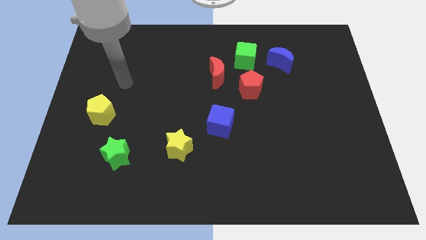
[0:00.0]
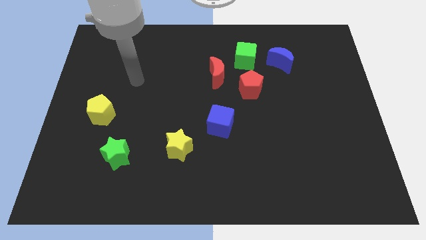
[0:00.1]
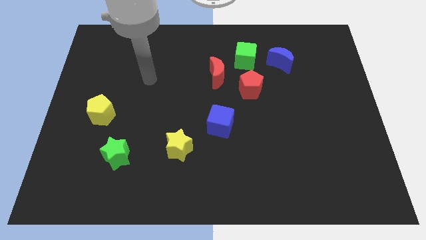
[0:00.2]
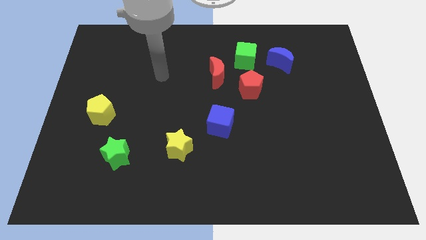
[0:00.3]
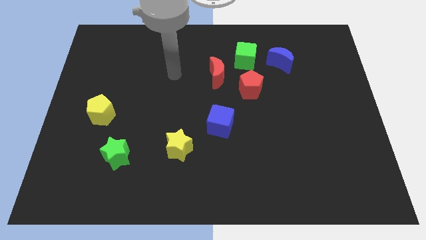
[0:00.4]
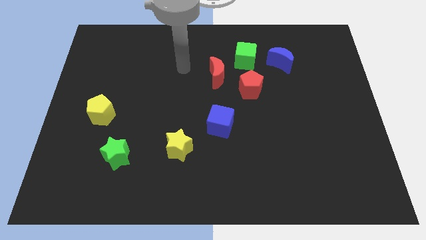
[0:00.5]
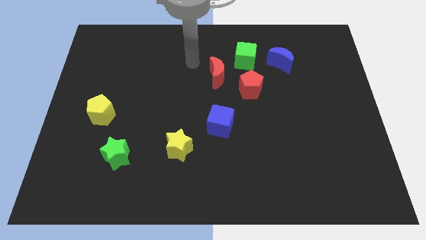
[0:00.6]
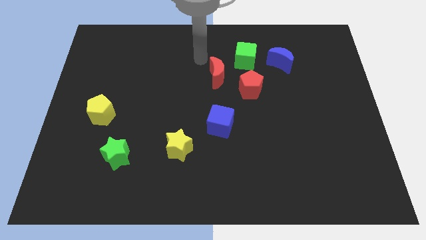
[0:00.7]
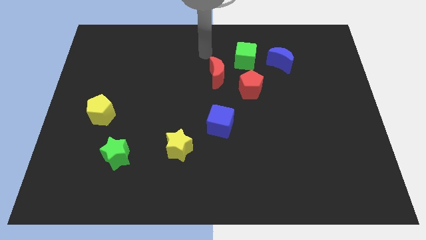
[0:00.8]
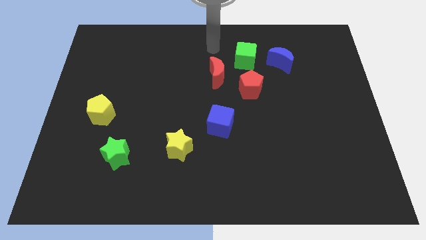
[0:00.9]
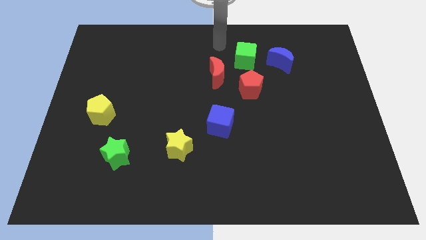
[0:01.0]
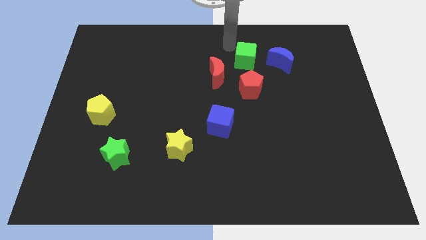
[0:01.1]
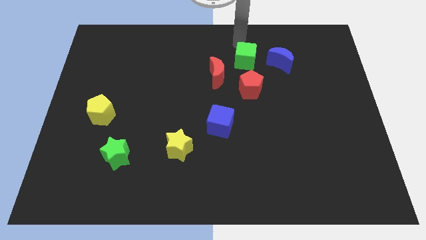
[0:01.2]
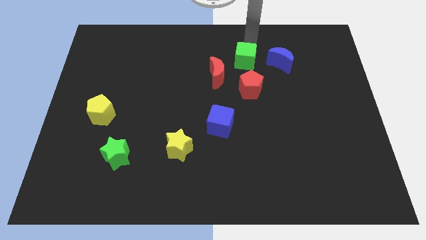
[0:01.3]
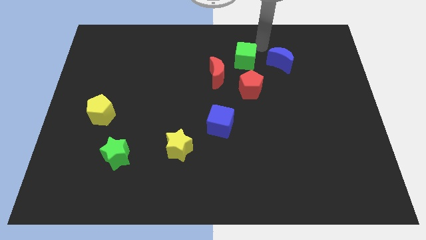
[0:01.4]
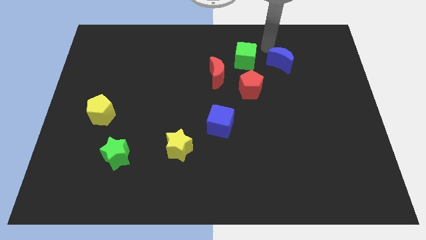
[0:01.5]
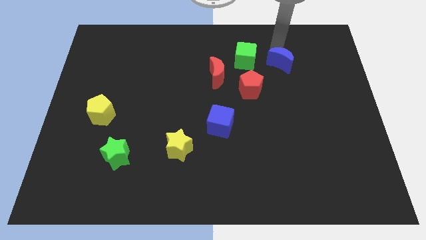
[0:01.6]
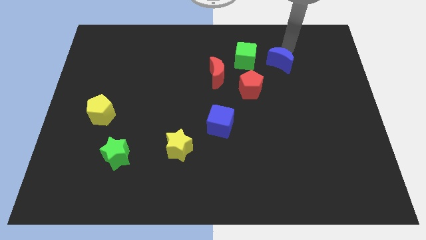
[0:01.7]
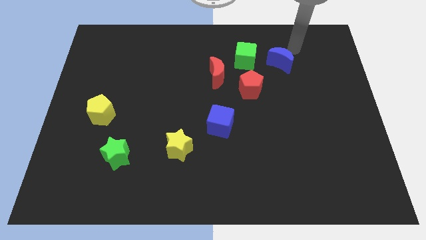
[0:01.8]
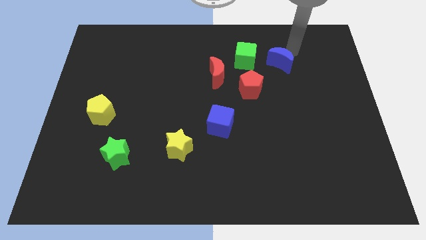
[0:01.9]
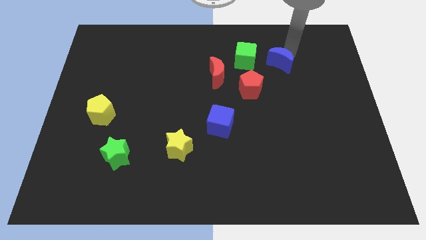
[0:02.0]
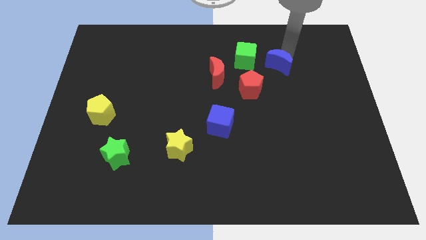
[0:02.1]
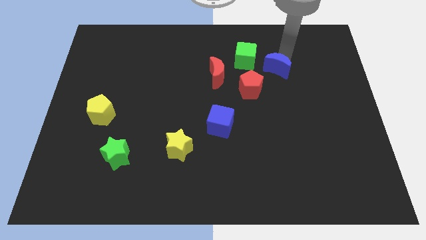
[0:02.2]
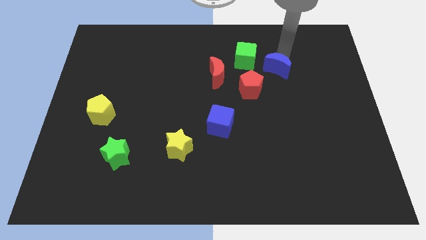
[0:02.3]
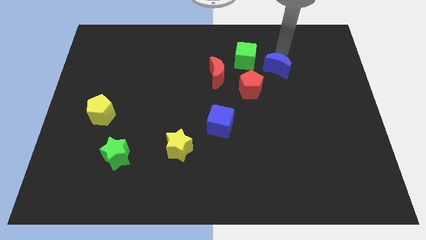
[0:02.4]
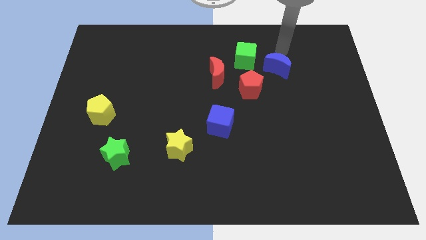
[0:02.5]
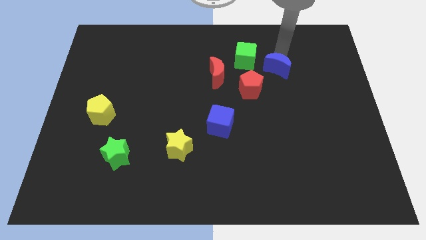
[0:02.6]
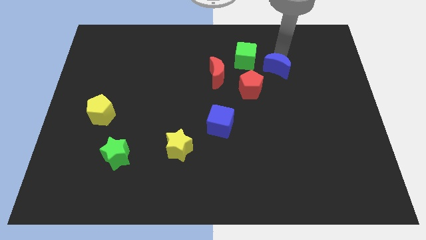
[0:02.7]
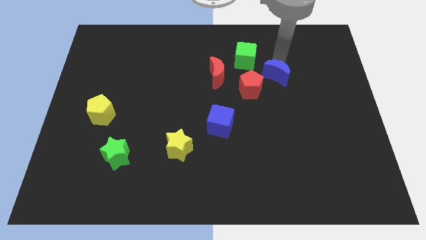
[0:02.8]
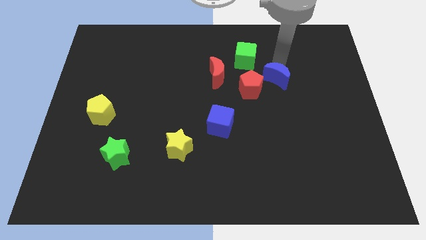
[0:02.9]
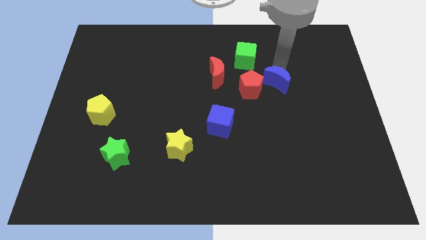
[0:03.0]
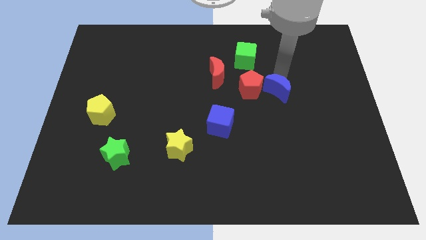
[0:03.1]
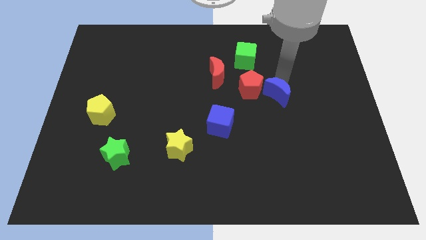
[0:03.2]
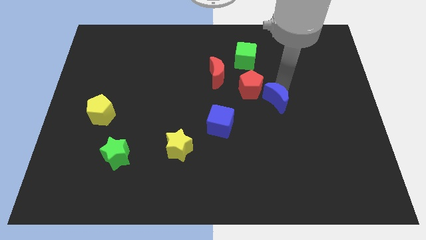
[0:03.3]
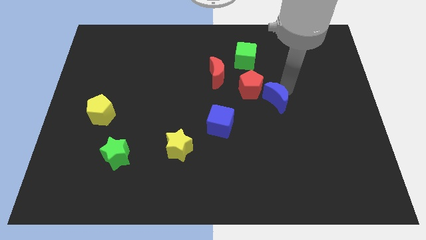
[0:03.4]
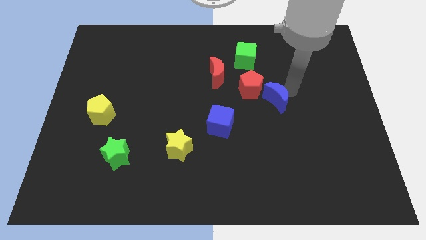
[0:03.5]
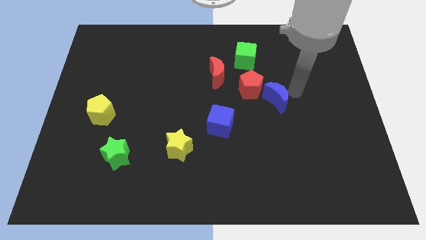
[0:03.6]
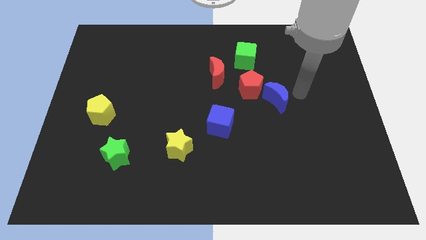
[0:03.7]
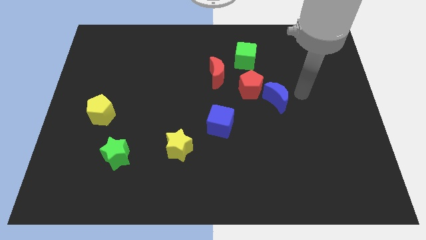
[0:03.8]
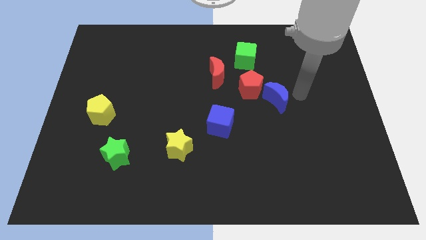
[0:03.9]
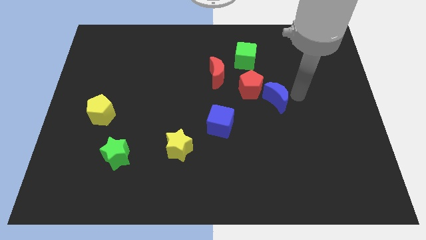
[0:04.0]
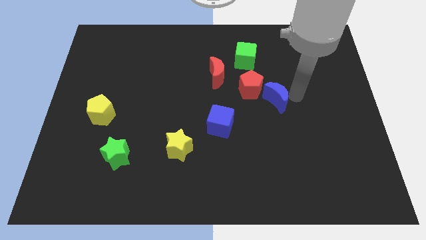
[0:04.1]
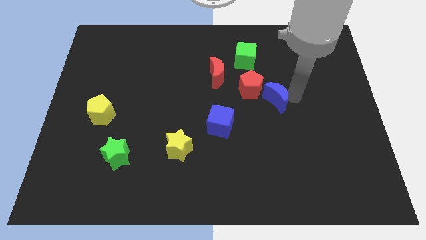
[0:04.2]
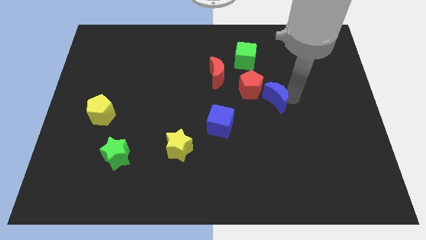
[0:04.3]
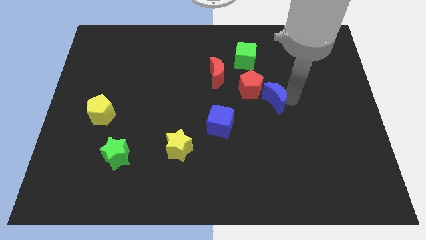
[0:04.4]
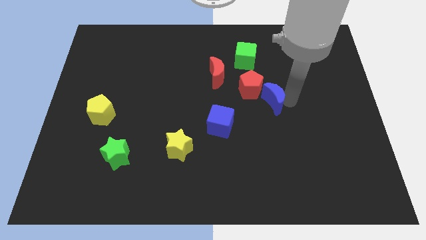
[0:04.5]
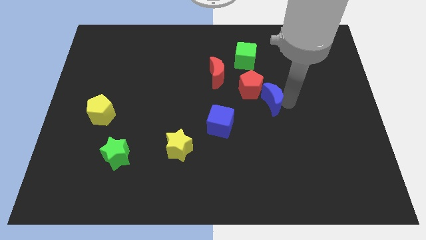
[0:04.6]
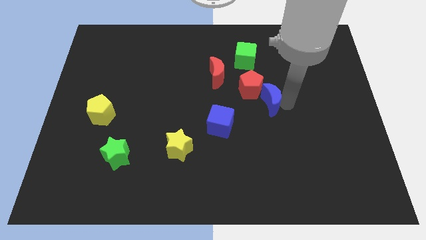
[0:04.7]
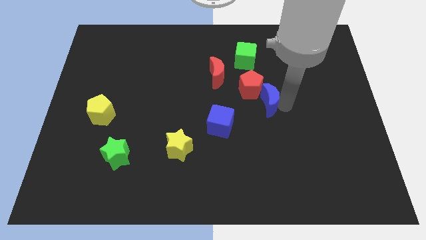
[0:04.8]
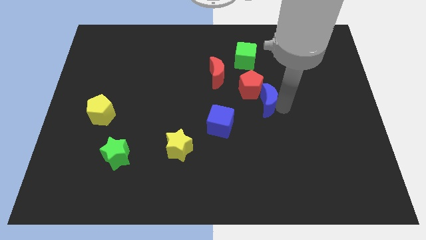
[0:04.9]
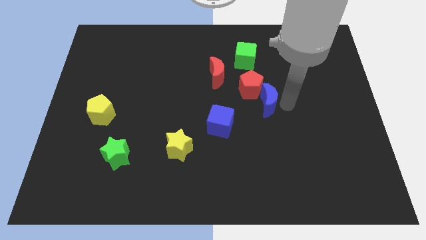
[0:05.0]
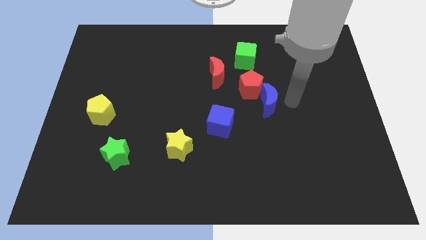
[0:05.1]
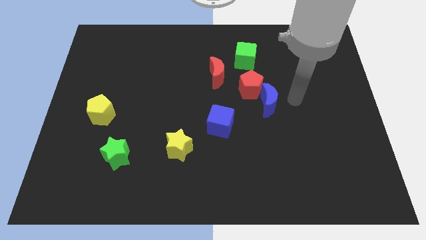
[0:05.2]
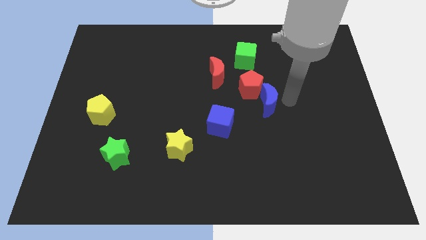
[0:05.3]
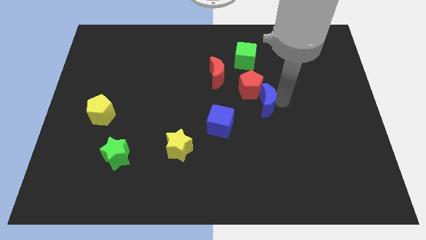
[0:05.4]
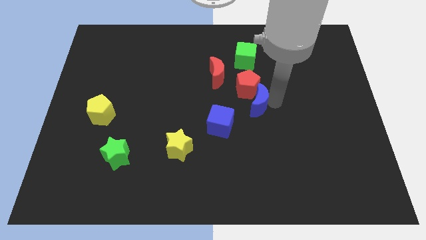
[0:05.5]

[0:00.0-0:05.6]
move the blue moon to the top right side of the blue cube

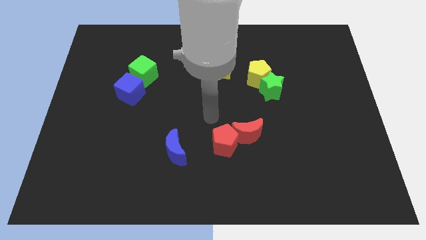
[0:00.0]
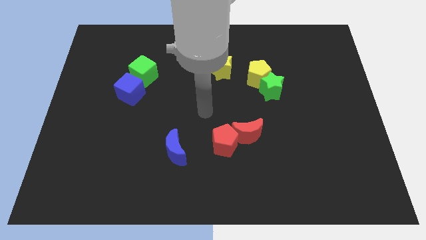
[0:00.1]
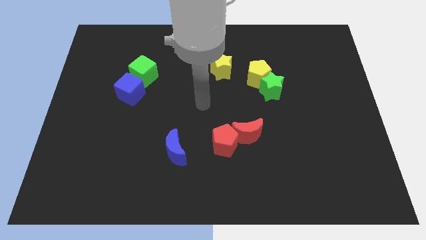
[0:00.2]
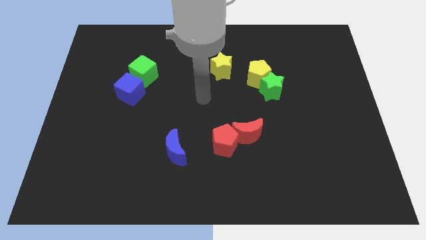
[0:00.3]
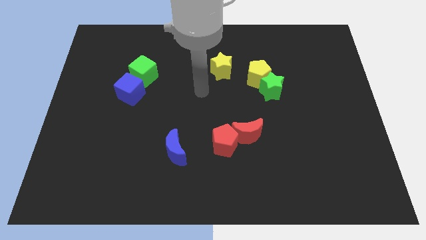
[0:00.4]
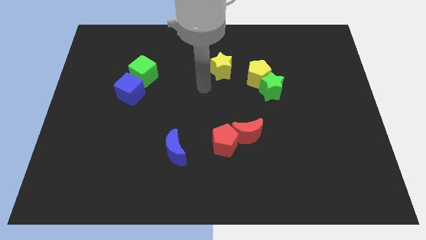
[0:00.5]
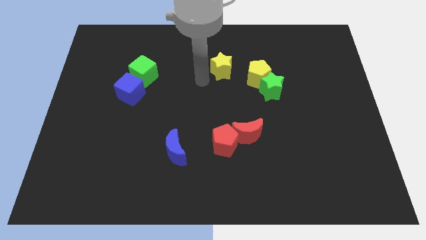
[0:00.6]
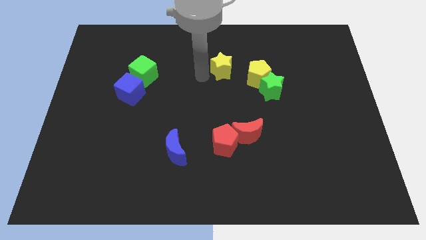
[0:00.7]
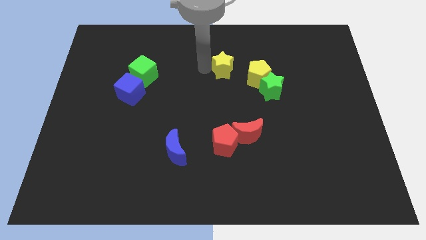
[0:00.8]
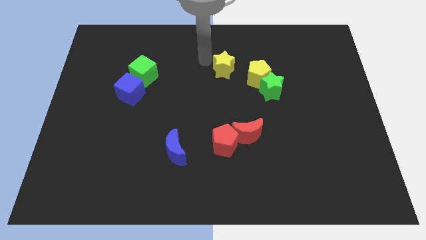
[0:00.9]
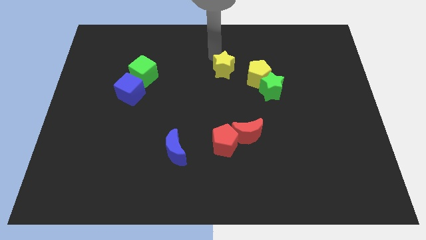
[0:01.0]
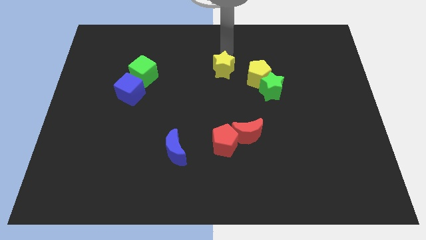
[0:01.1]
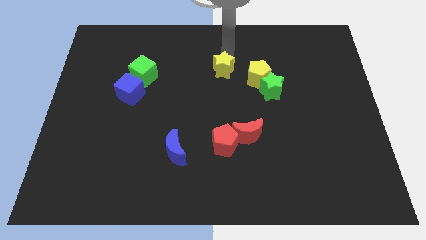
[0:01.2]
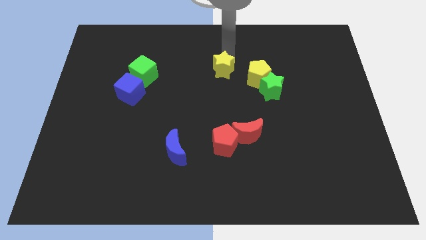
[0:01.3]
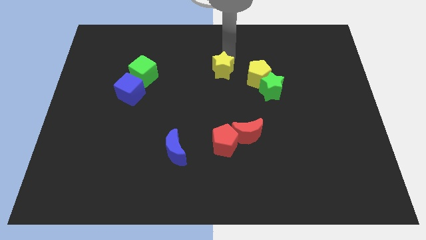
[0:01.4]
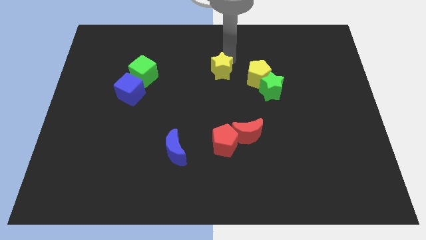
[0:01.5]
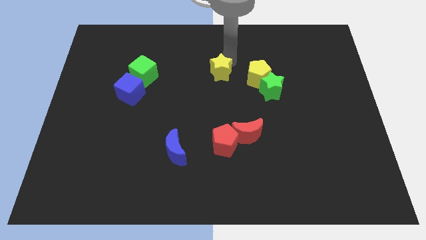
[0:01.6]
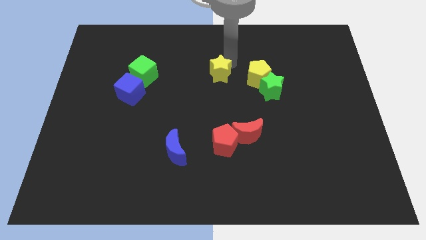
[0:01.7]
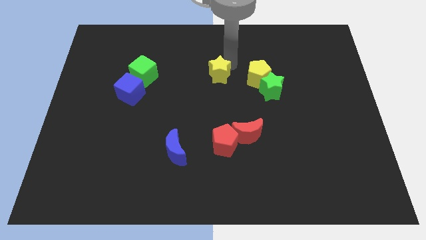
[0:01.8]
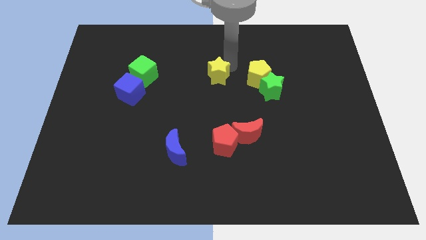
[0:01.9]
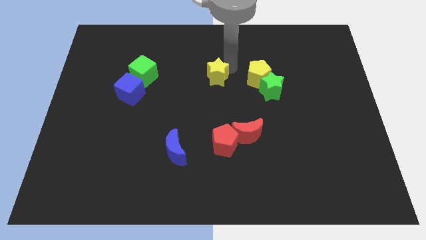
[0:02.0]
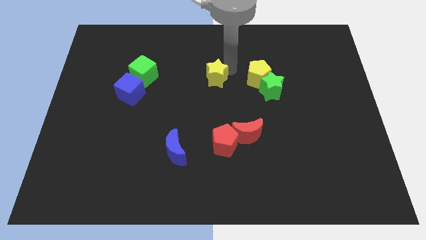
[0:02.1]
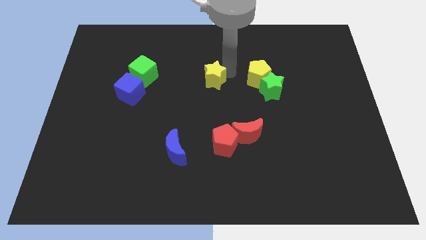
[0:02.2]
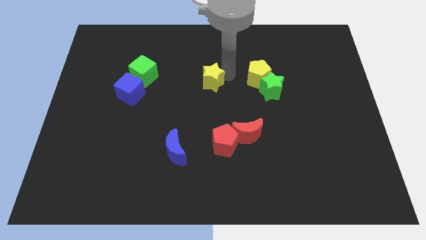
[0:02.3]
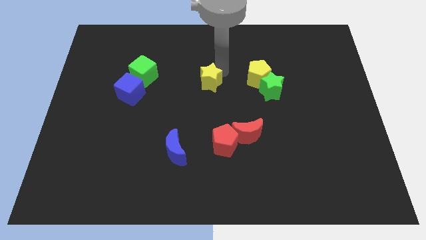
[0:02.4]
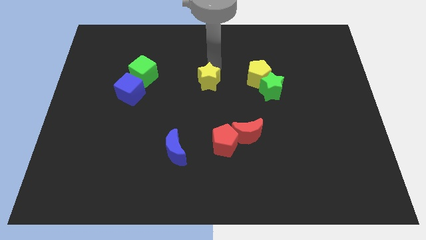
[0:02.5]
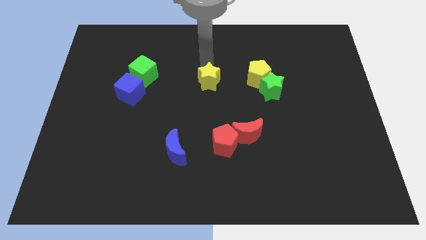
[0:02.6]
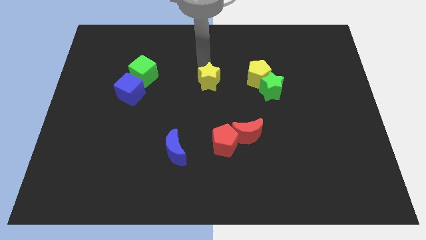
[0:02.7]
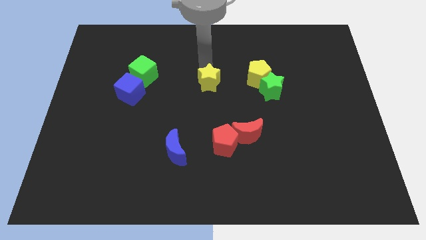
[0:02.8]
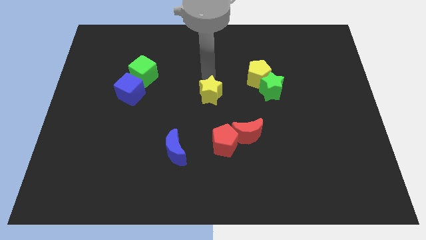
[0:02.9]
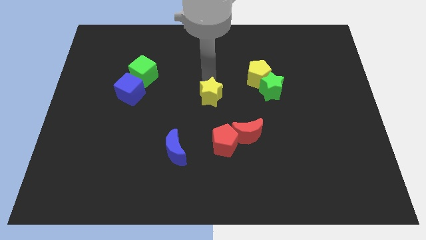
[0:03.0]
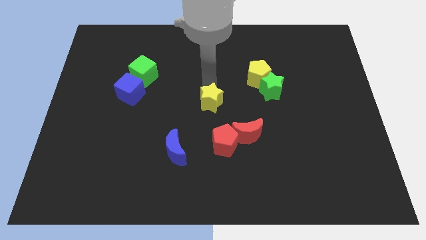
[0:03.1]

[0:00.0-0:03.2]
move the yellow star to the top left side of the red moon
